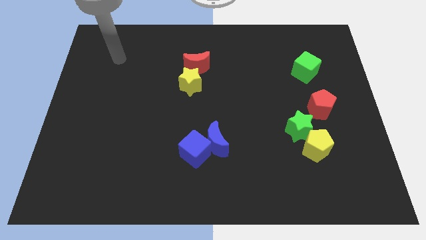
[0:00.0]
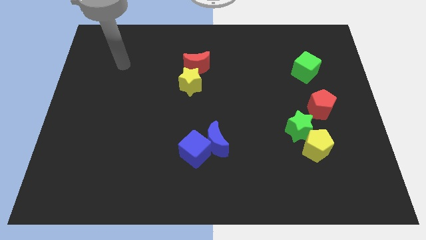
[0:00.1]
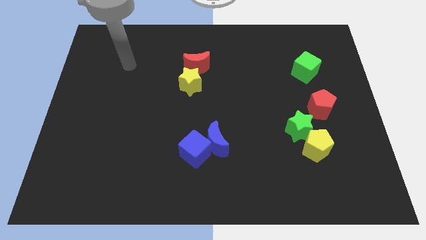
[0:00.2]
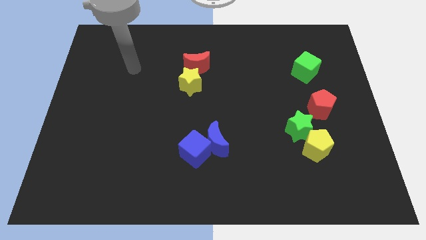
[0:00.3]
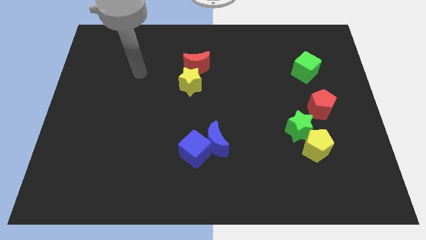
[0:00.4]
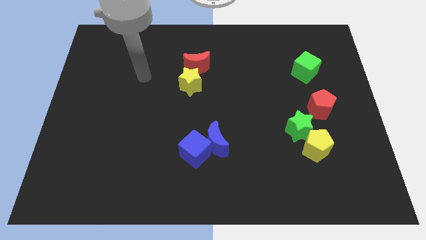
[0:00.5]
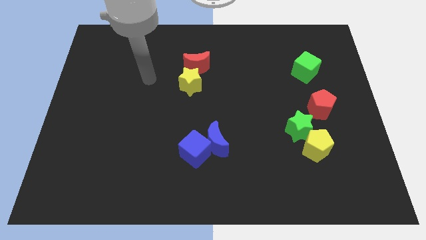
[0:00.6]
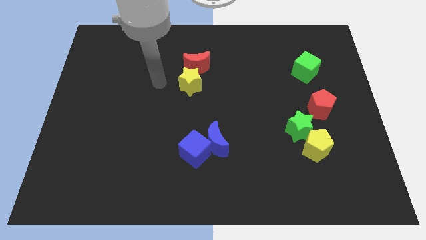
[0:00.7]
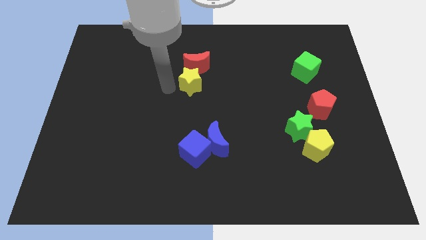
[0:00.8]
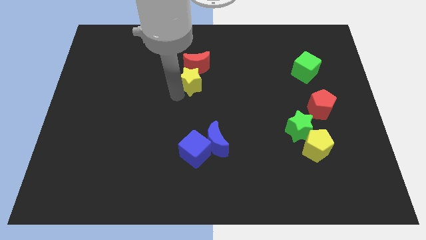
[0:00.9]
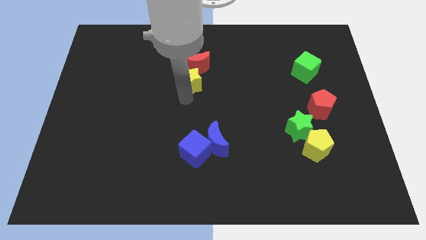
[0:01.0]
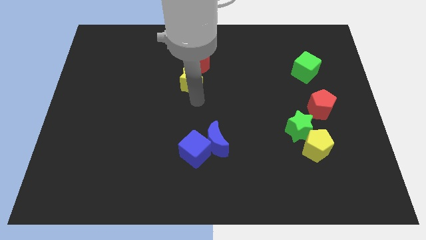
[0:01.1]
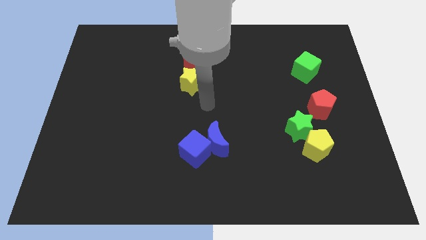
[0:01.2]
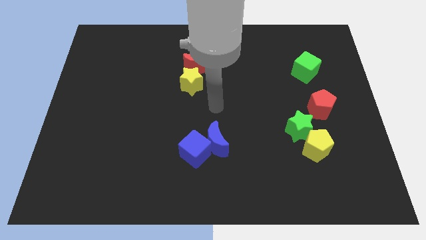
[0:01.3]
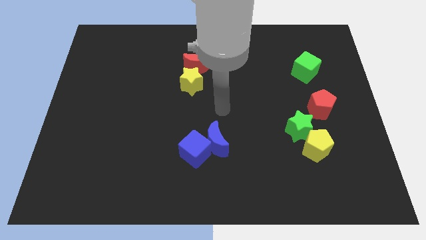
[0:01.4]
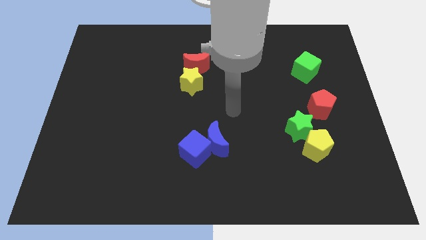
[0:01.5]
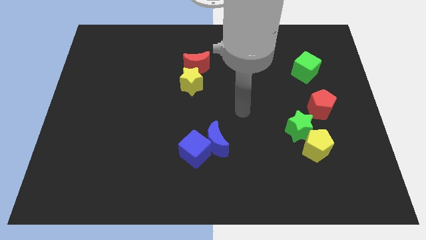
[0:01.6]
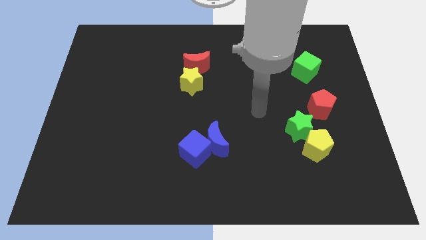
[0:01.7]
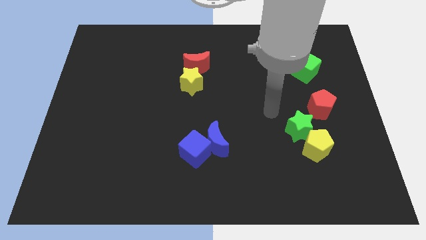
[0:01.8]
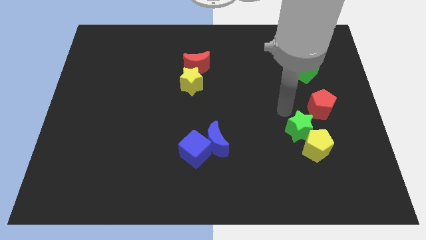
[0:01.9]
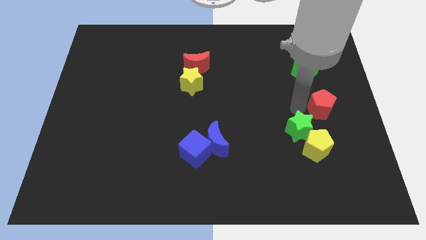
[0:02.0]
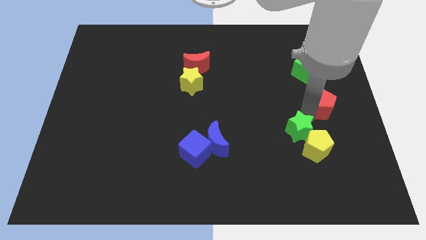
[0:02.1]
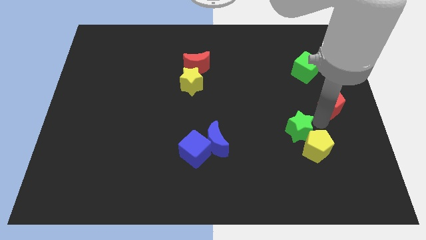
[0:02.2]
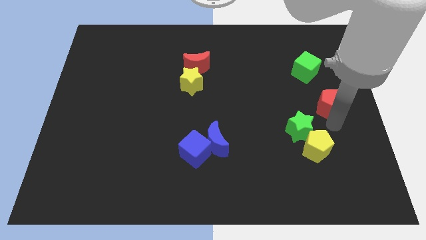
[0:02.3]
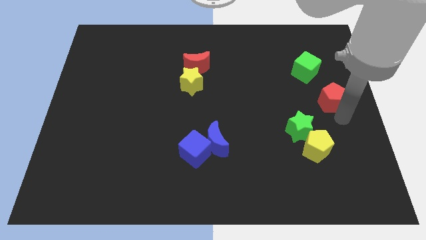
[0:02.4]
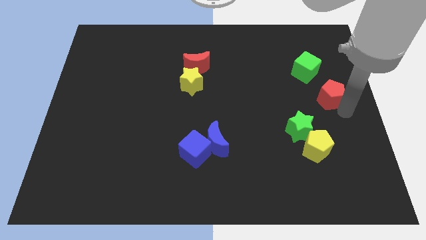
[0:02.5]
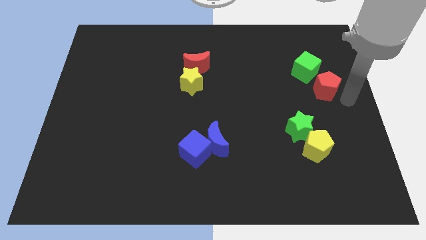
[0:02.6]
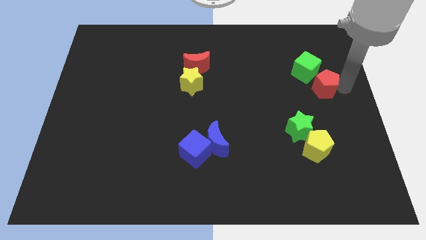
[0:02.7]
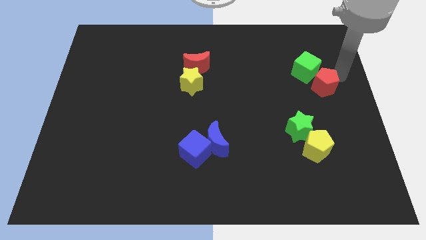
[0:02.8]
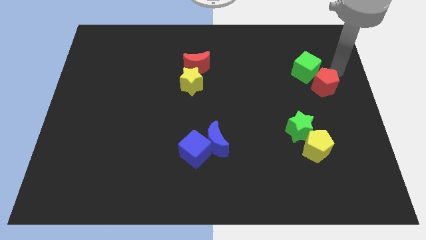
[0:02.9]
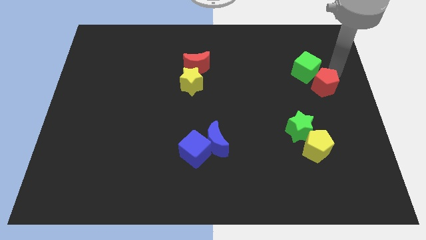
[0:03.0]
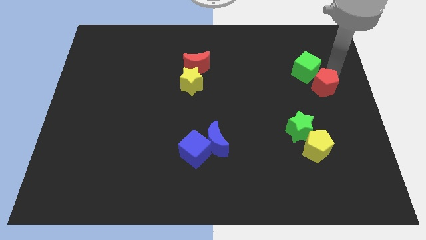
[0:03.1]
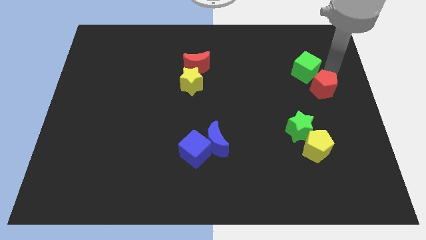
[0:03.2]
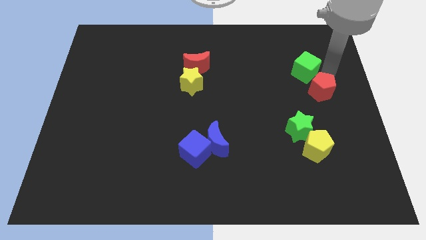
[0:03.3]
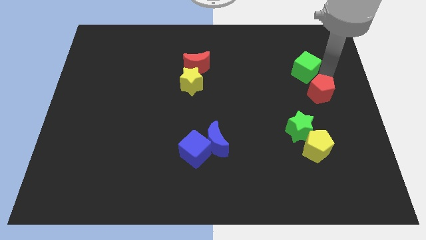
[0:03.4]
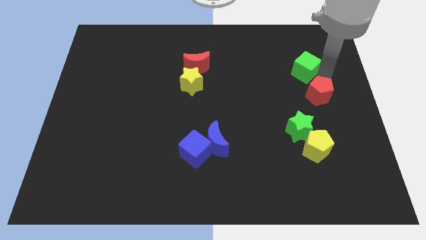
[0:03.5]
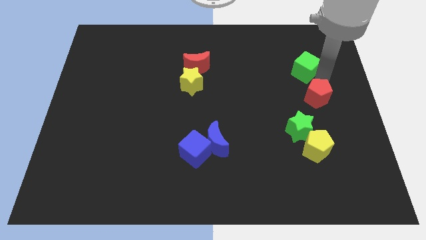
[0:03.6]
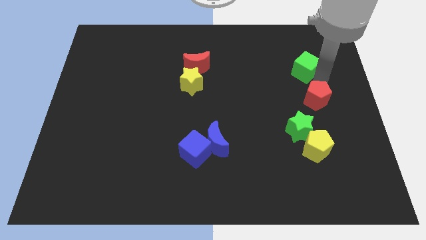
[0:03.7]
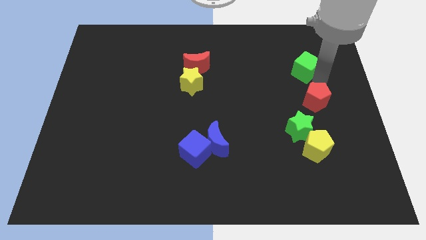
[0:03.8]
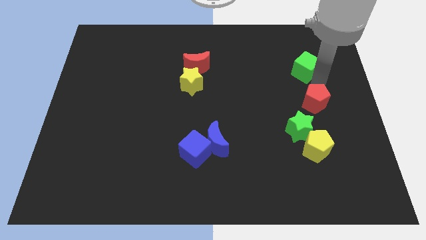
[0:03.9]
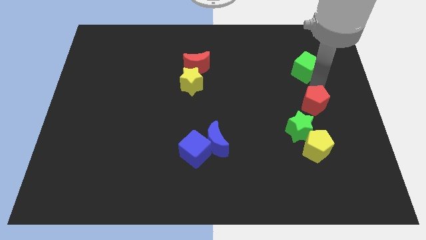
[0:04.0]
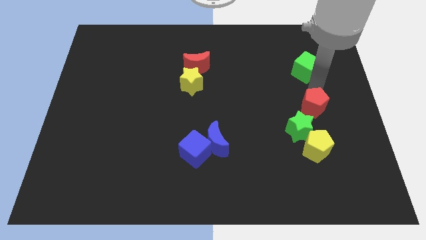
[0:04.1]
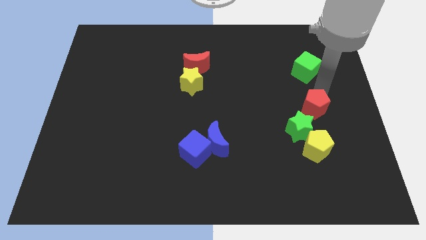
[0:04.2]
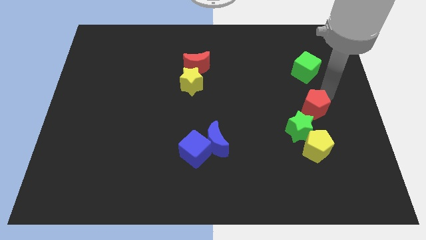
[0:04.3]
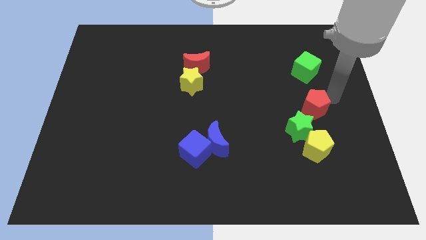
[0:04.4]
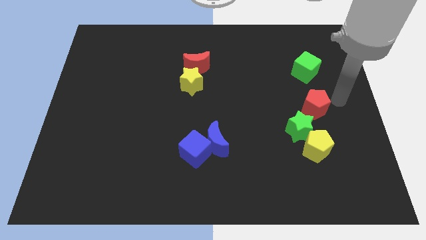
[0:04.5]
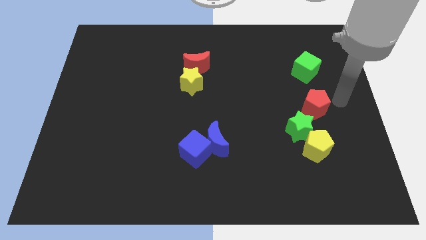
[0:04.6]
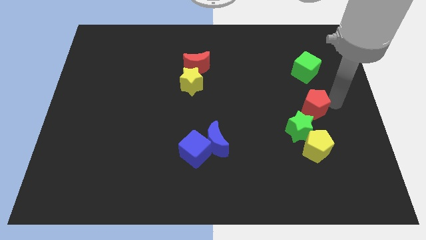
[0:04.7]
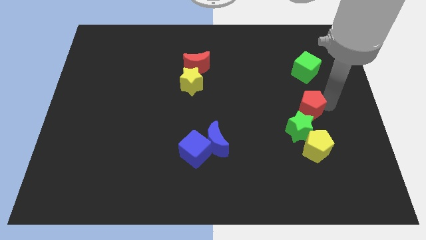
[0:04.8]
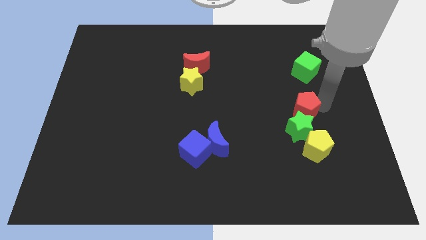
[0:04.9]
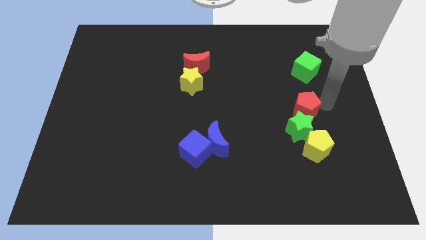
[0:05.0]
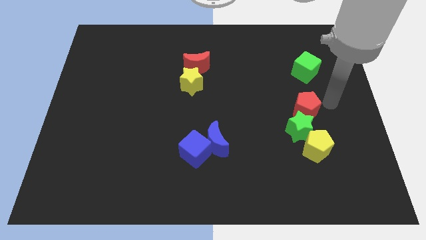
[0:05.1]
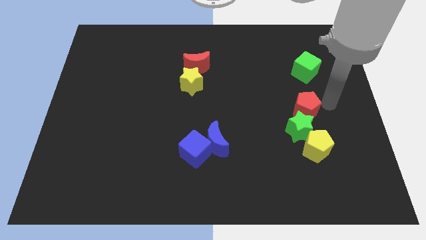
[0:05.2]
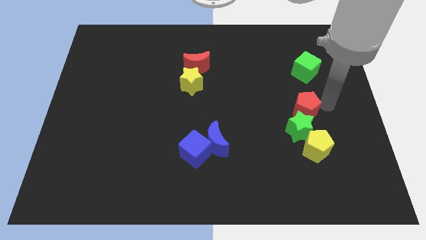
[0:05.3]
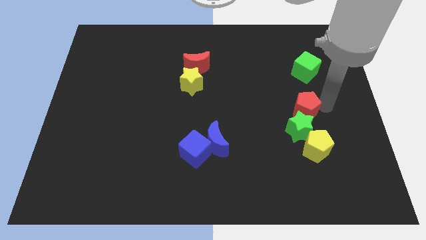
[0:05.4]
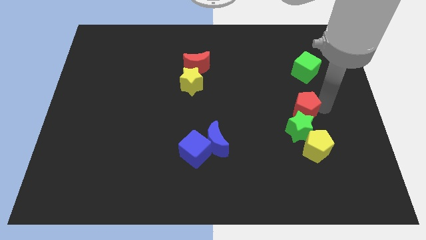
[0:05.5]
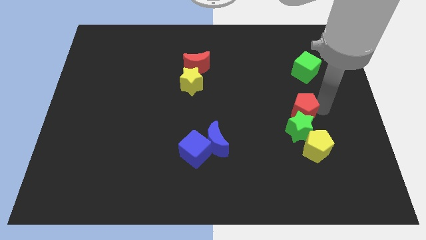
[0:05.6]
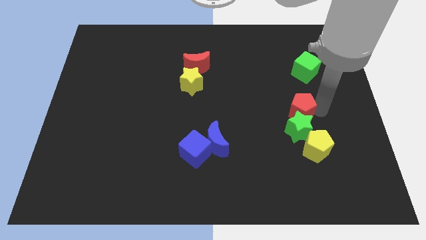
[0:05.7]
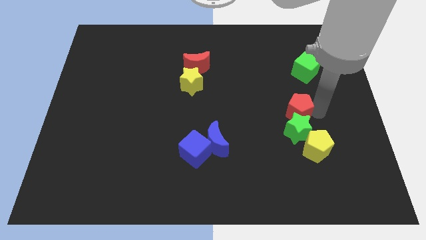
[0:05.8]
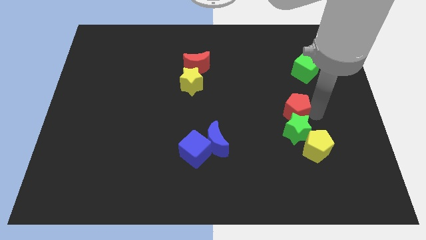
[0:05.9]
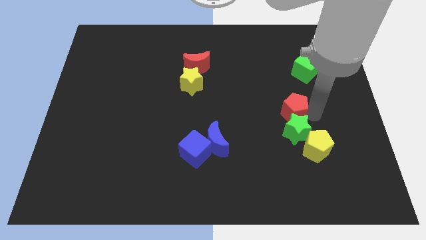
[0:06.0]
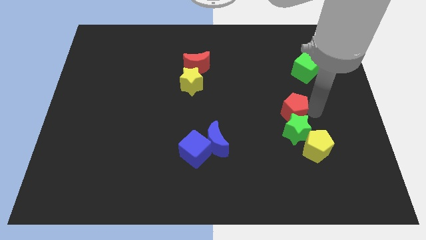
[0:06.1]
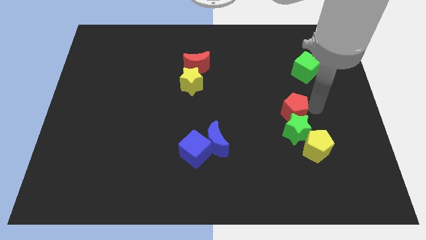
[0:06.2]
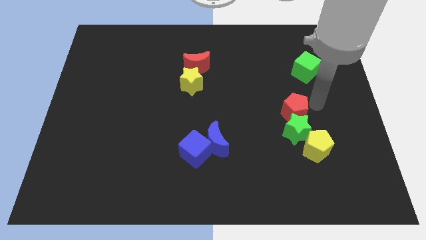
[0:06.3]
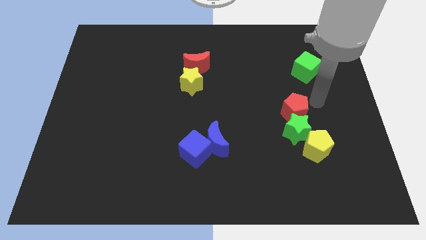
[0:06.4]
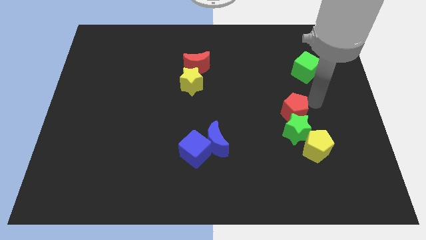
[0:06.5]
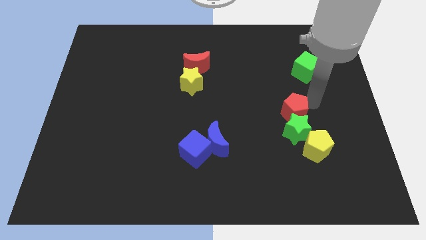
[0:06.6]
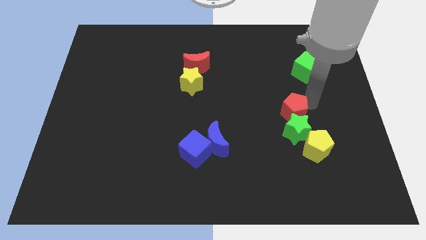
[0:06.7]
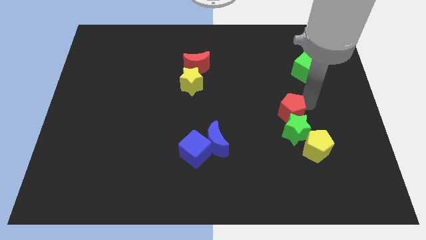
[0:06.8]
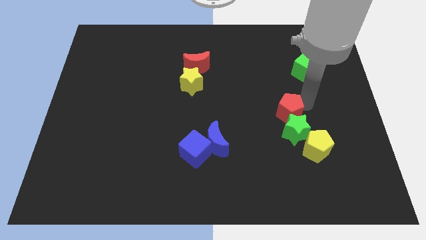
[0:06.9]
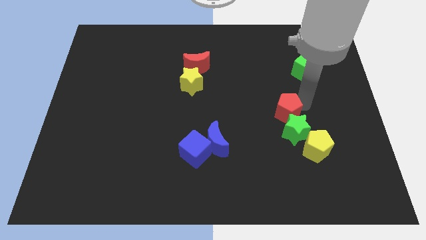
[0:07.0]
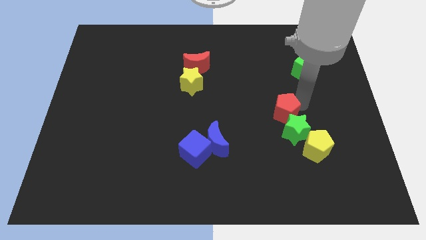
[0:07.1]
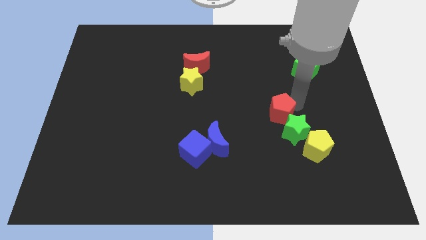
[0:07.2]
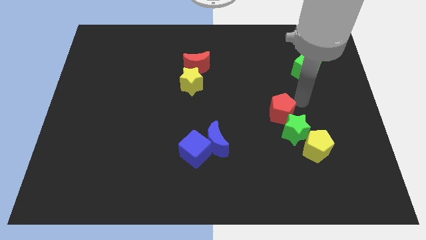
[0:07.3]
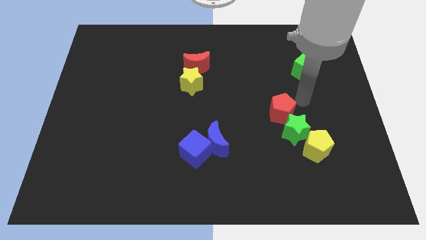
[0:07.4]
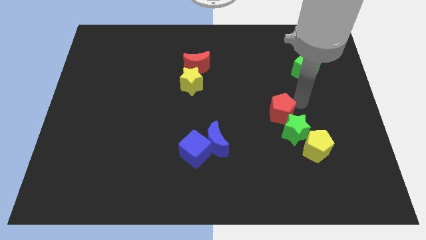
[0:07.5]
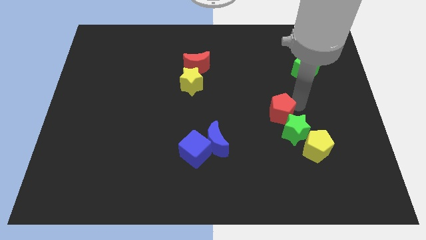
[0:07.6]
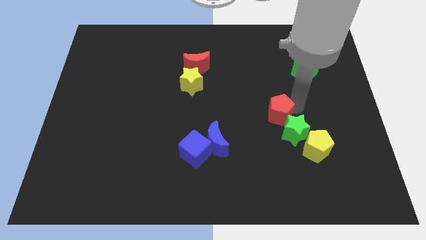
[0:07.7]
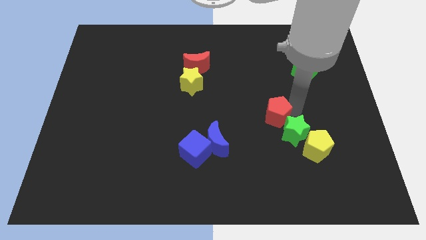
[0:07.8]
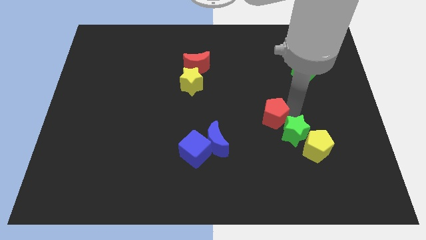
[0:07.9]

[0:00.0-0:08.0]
put the red pentagon left of the green star
